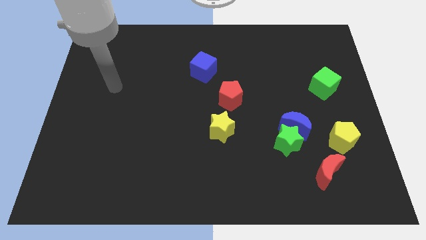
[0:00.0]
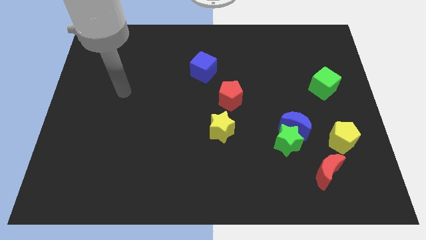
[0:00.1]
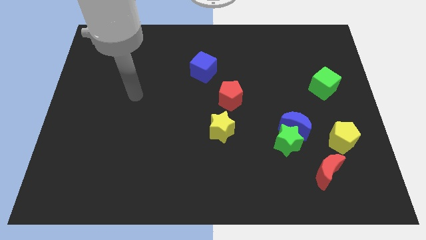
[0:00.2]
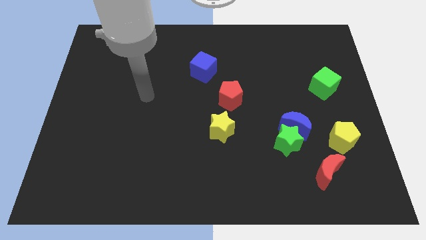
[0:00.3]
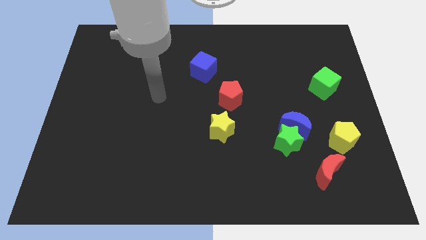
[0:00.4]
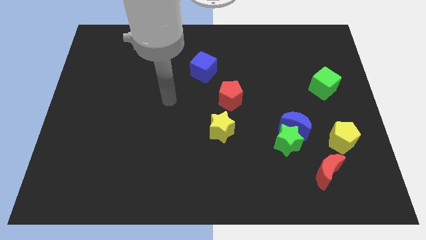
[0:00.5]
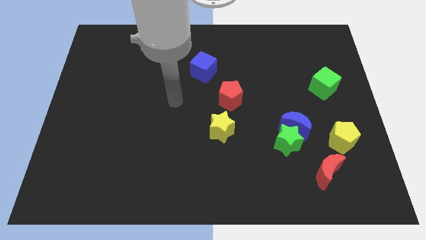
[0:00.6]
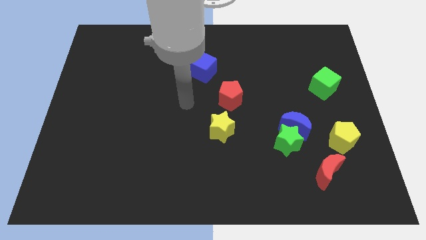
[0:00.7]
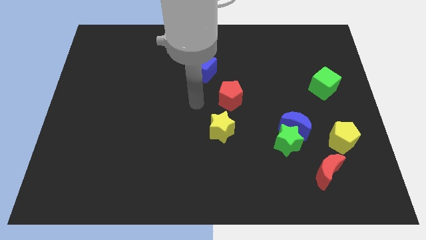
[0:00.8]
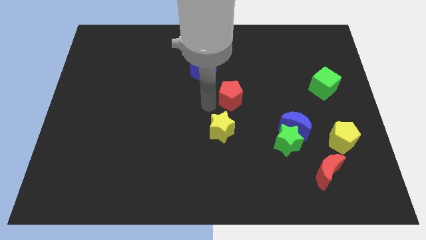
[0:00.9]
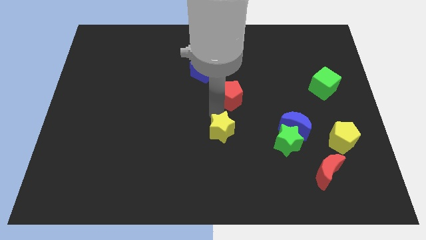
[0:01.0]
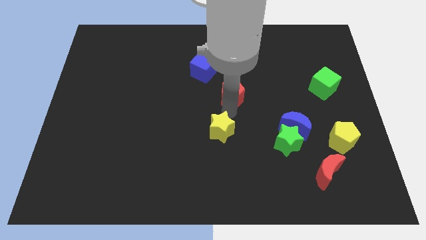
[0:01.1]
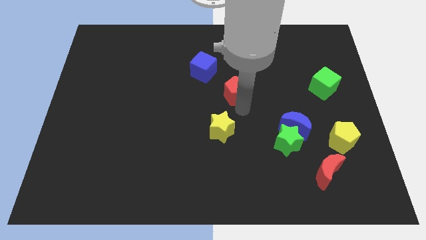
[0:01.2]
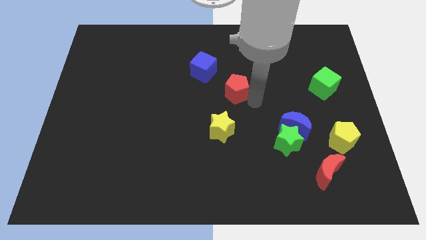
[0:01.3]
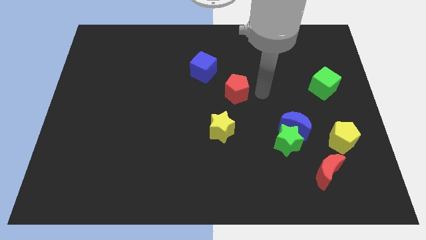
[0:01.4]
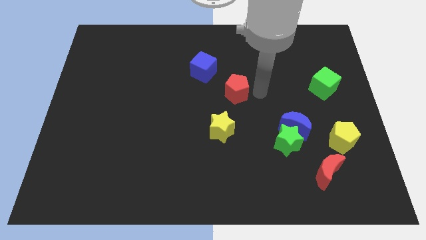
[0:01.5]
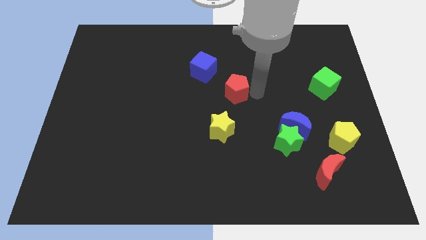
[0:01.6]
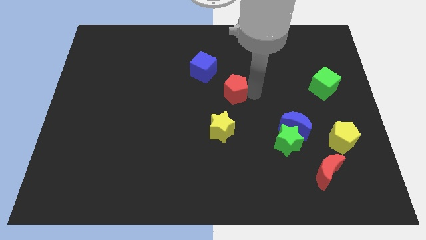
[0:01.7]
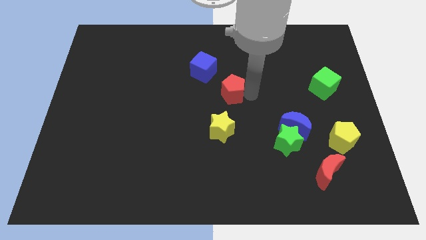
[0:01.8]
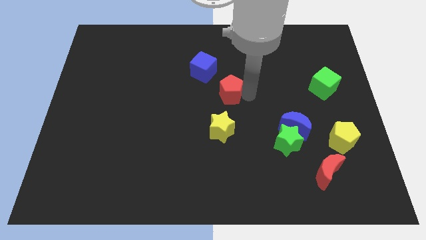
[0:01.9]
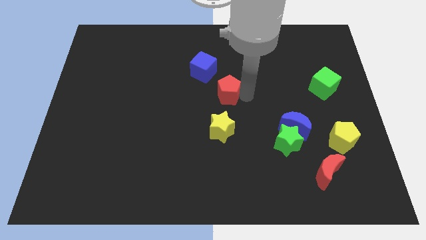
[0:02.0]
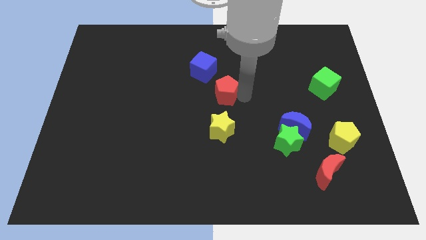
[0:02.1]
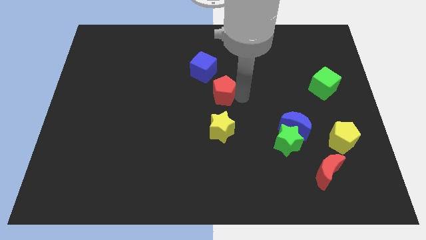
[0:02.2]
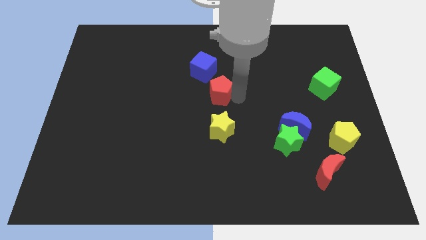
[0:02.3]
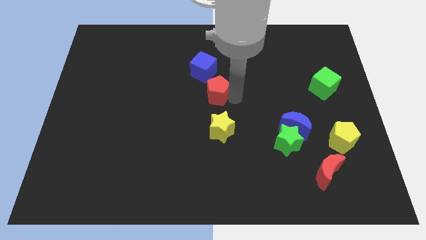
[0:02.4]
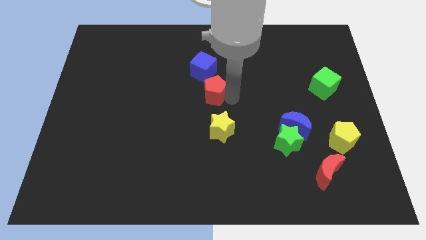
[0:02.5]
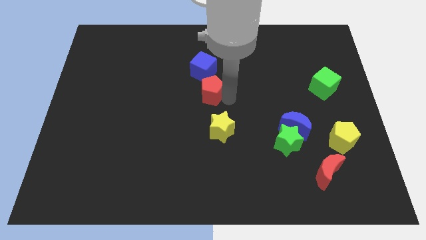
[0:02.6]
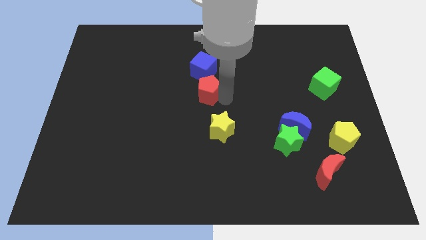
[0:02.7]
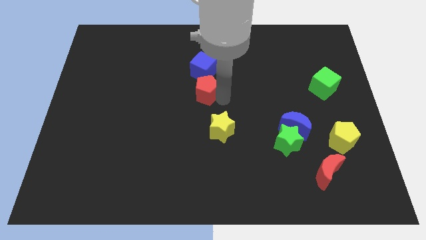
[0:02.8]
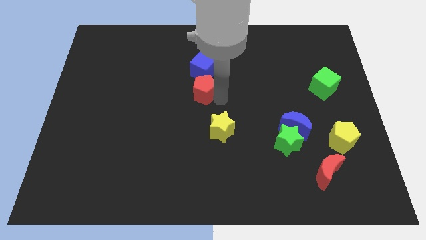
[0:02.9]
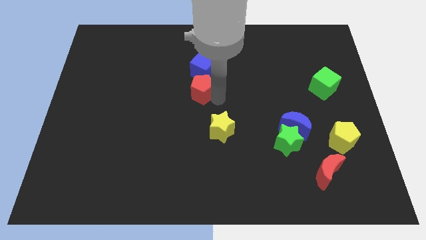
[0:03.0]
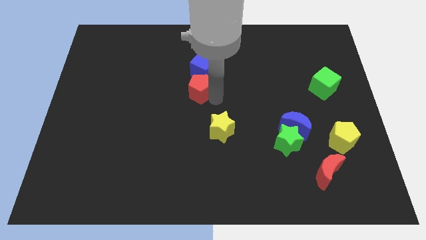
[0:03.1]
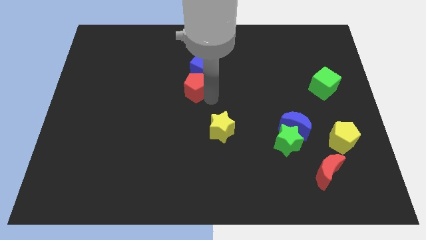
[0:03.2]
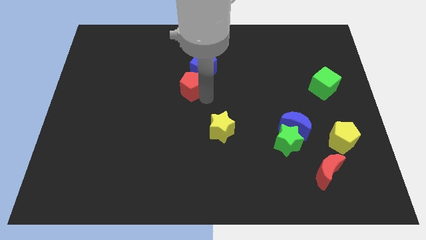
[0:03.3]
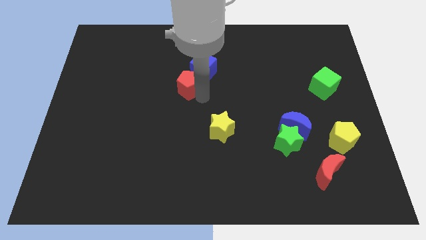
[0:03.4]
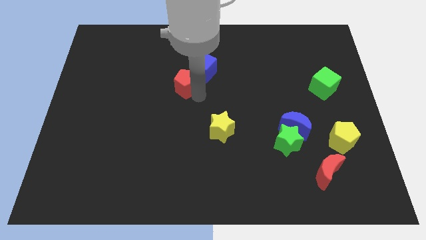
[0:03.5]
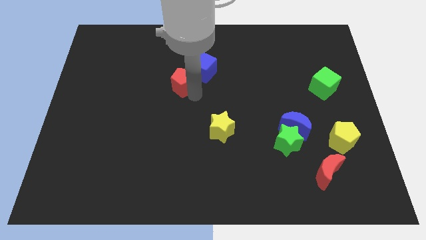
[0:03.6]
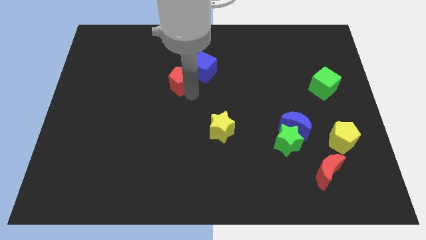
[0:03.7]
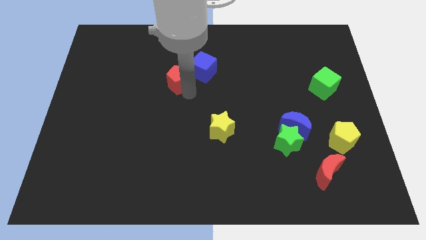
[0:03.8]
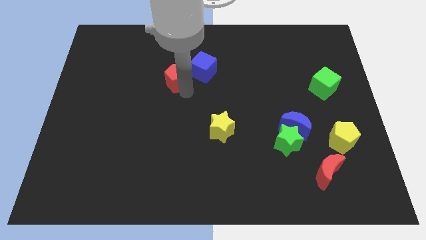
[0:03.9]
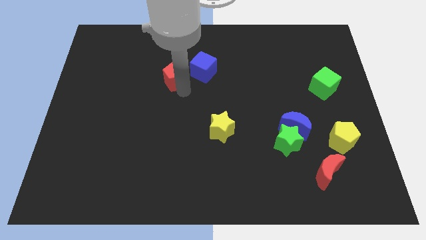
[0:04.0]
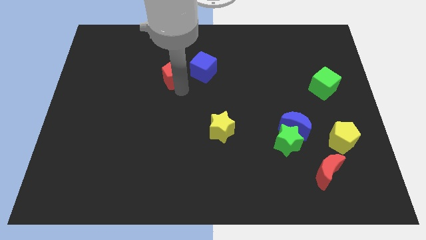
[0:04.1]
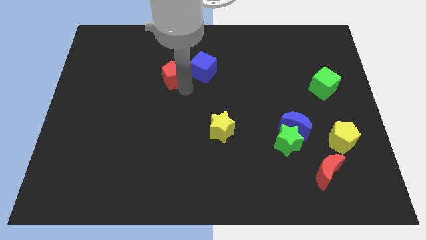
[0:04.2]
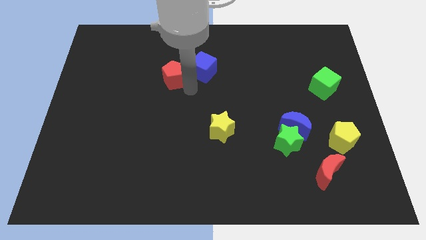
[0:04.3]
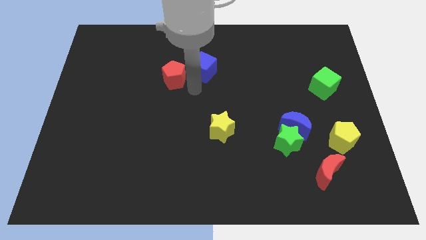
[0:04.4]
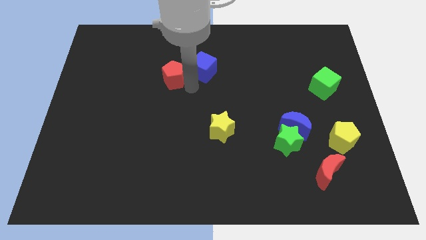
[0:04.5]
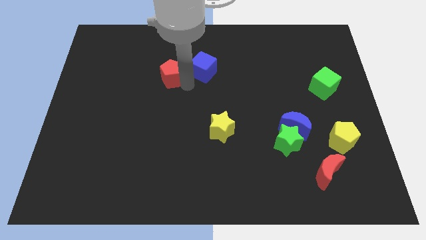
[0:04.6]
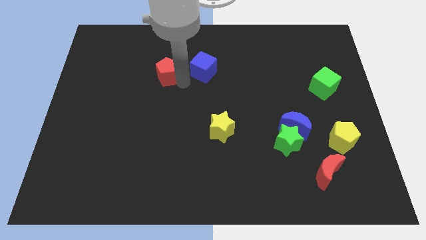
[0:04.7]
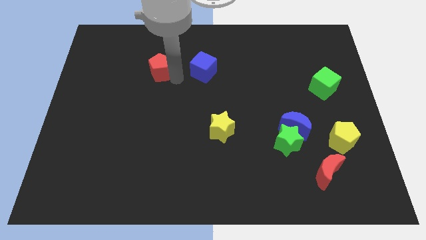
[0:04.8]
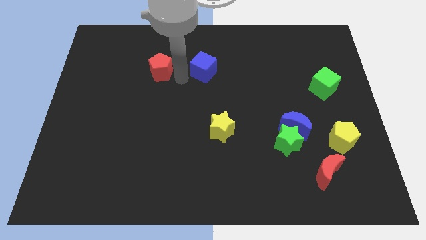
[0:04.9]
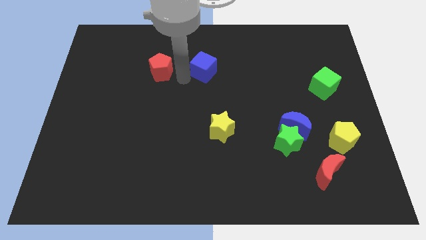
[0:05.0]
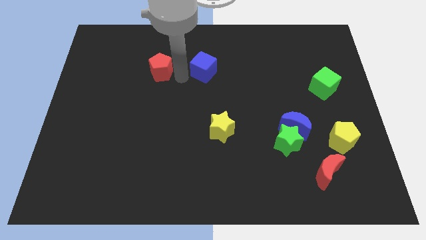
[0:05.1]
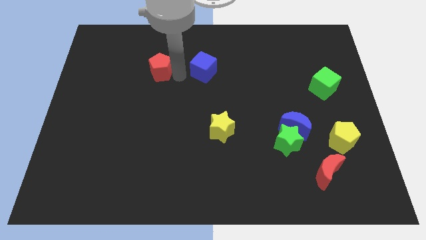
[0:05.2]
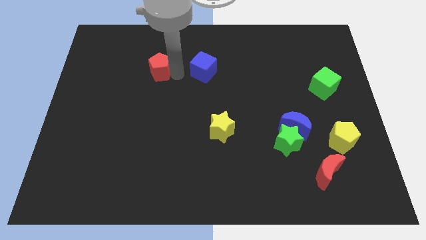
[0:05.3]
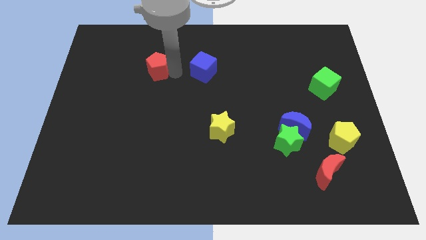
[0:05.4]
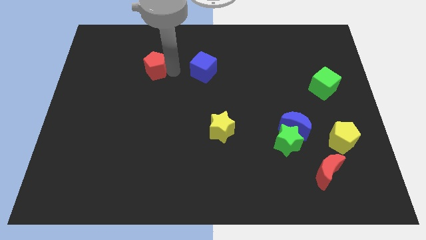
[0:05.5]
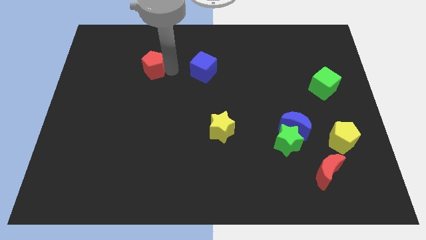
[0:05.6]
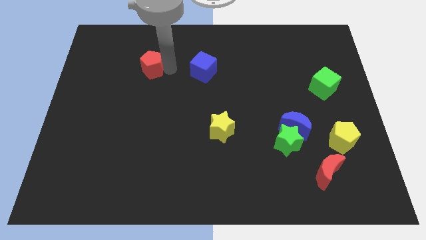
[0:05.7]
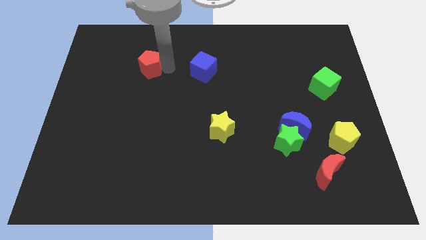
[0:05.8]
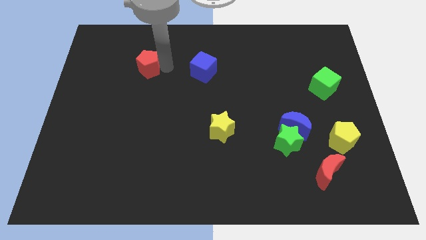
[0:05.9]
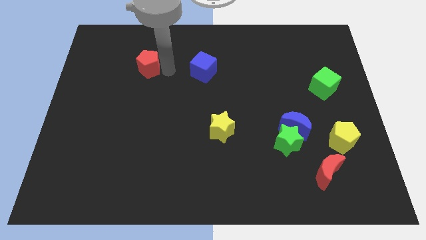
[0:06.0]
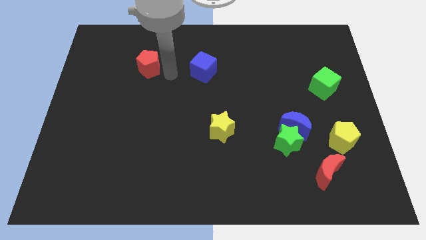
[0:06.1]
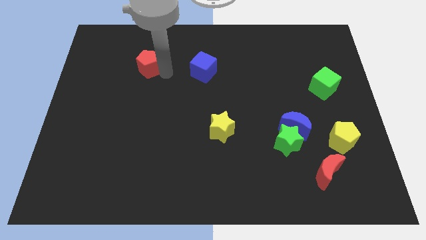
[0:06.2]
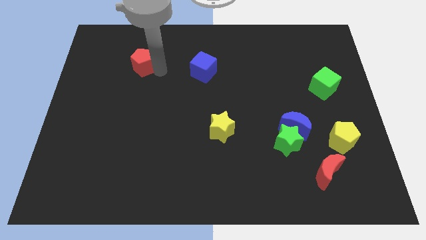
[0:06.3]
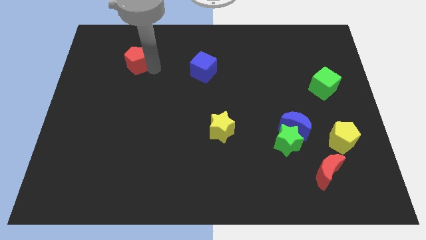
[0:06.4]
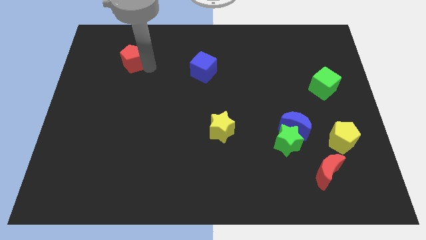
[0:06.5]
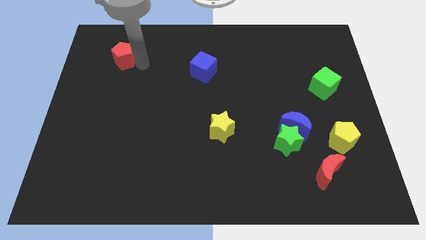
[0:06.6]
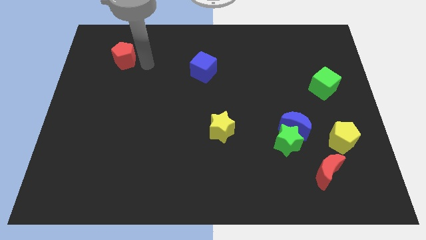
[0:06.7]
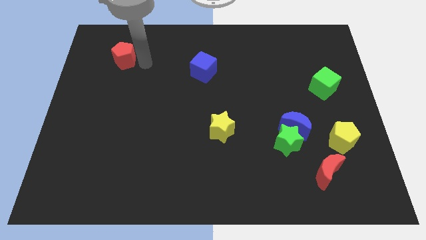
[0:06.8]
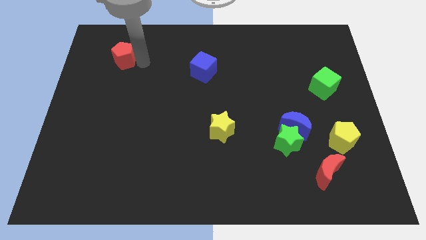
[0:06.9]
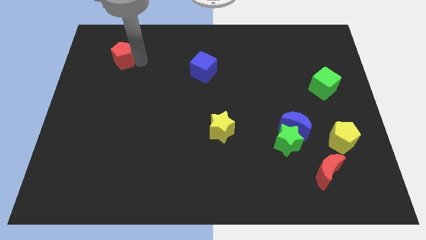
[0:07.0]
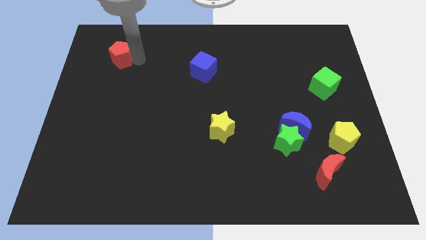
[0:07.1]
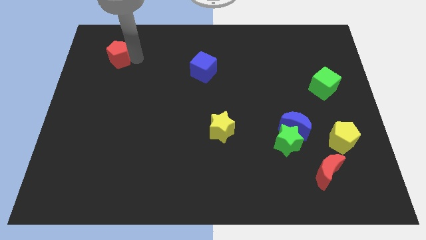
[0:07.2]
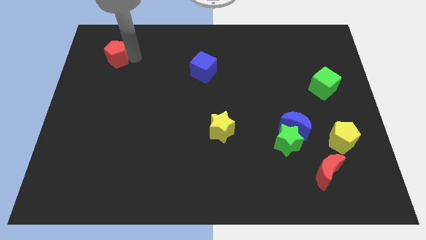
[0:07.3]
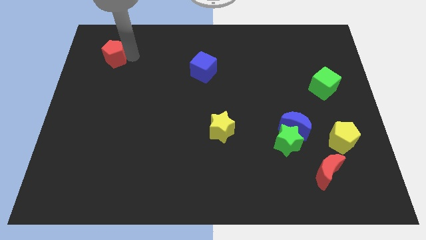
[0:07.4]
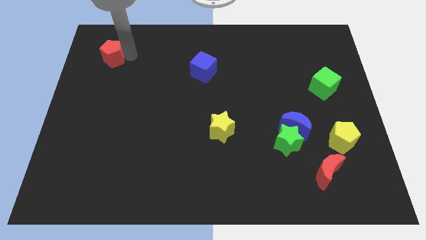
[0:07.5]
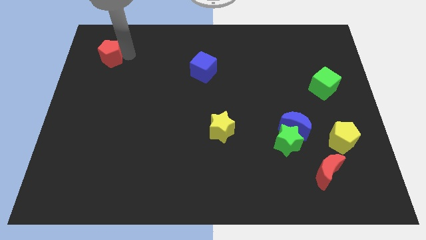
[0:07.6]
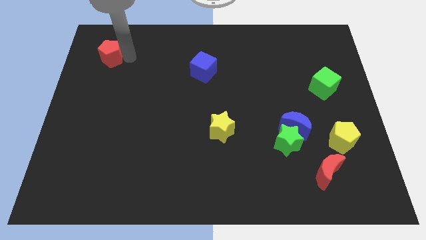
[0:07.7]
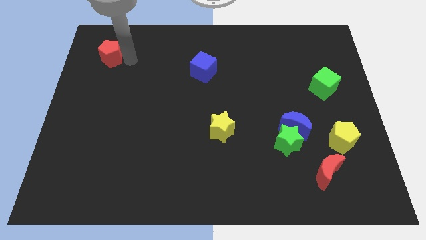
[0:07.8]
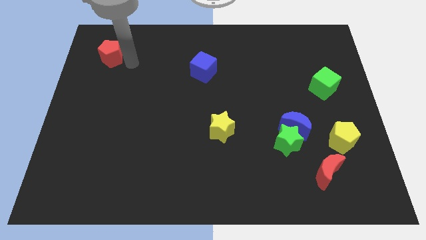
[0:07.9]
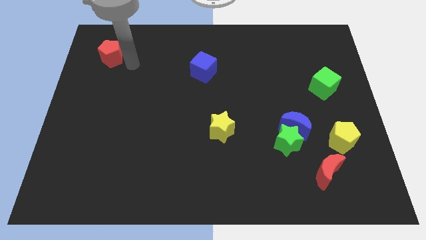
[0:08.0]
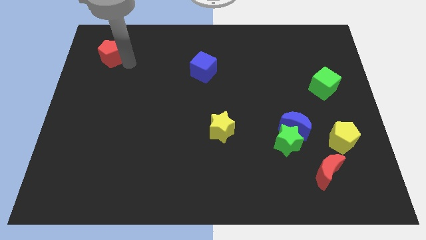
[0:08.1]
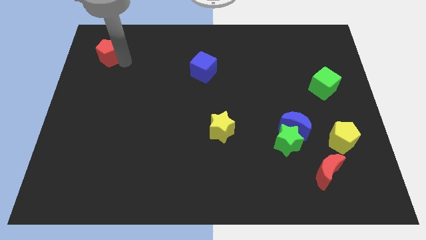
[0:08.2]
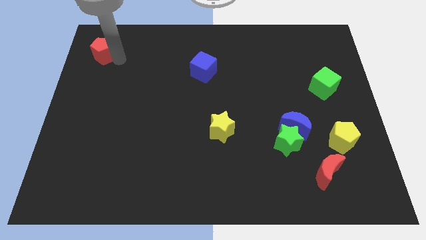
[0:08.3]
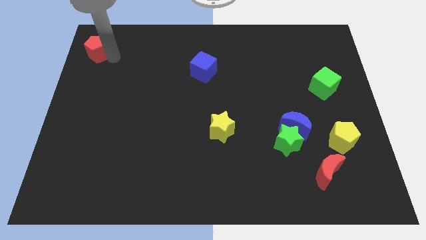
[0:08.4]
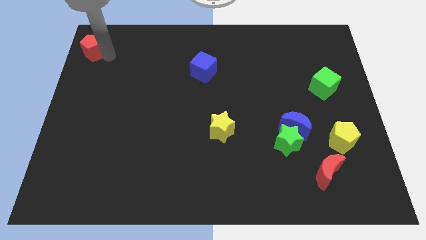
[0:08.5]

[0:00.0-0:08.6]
put the red pentagon to the top left
